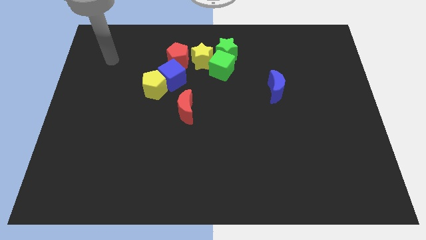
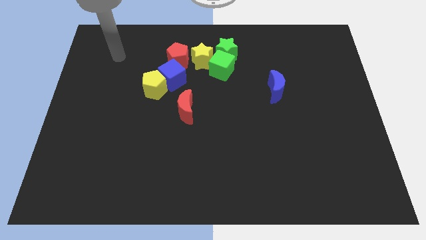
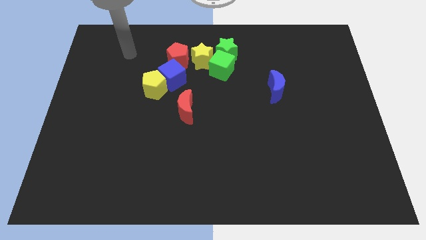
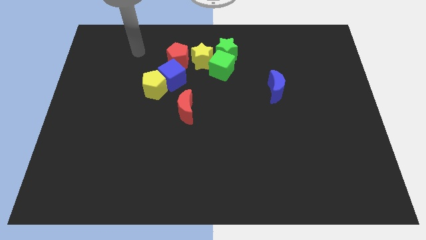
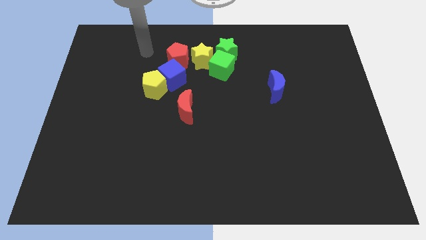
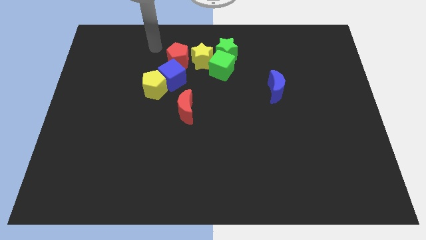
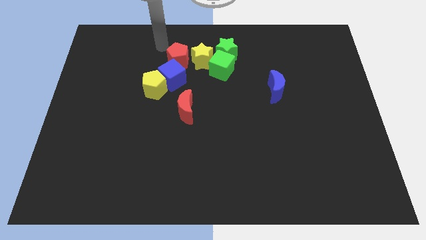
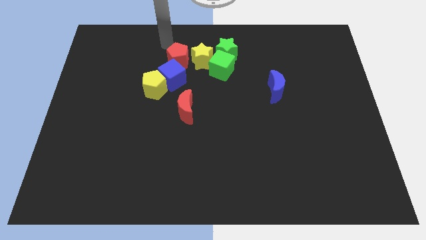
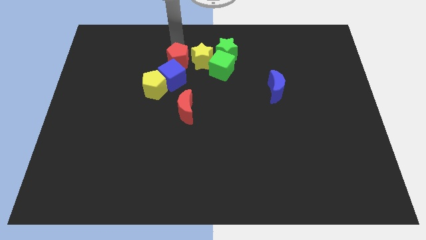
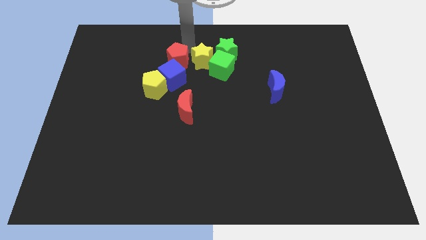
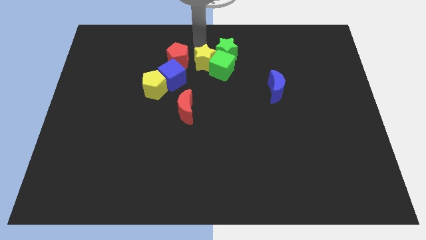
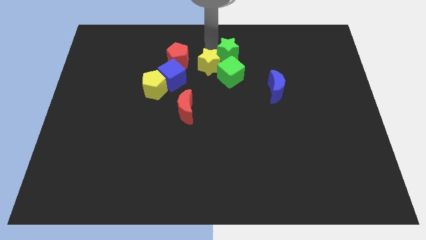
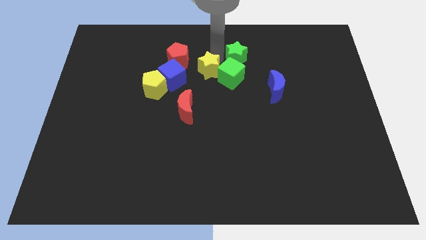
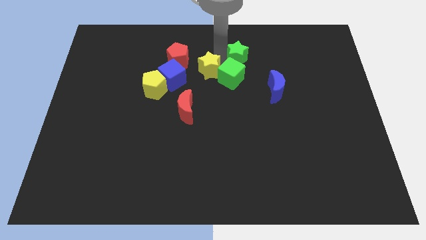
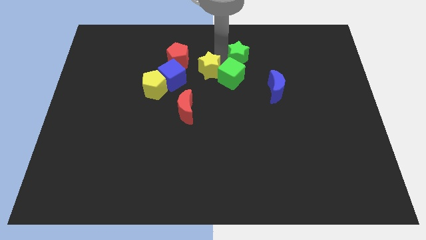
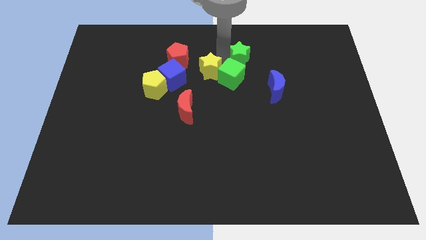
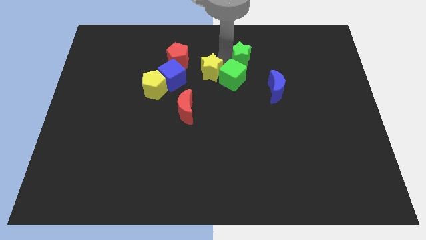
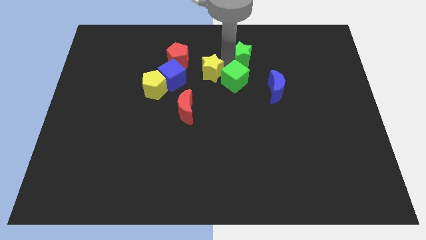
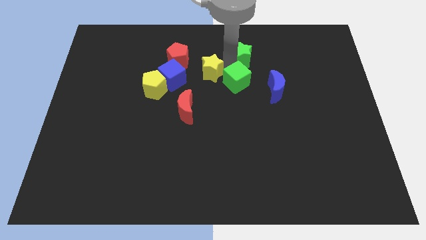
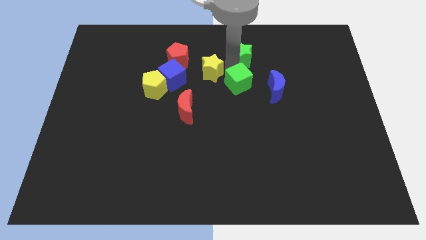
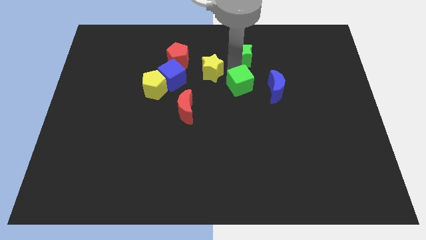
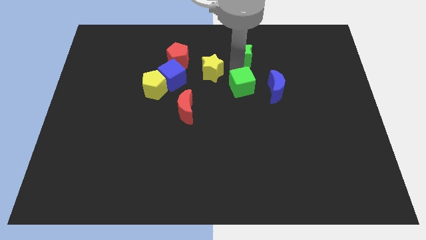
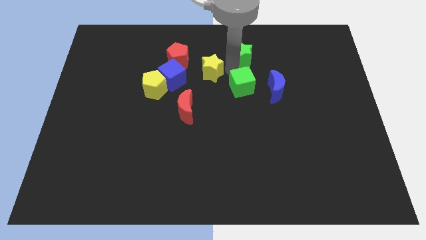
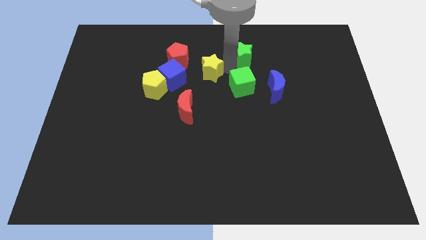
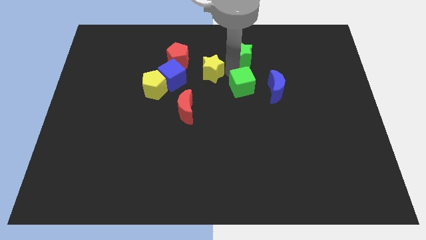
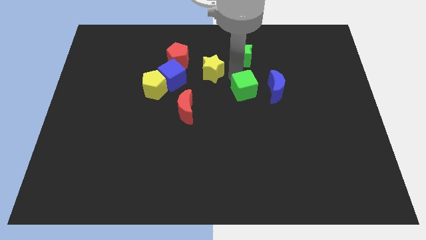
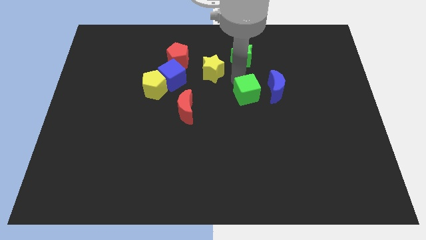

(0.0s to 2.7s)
move the green cube away from the green star and yellow star

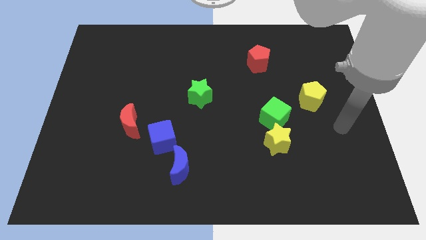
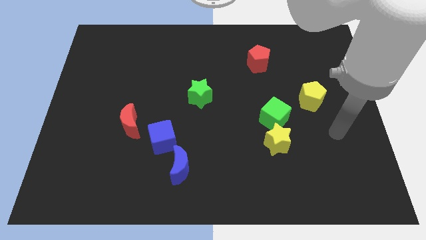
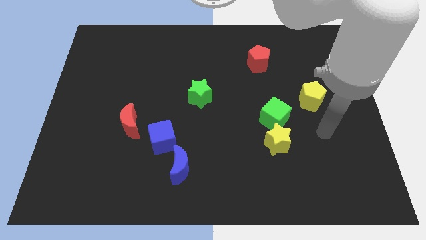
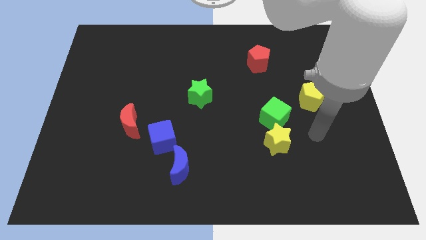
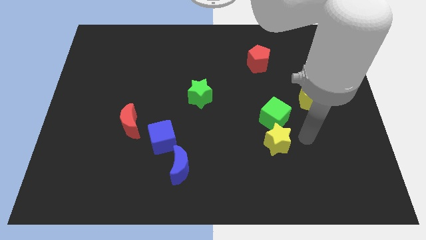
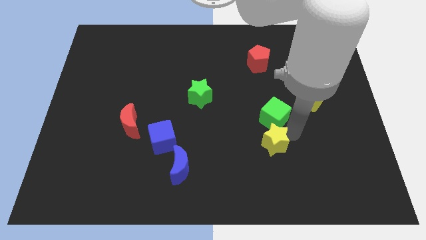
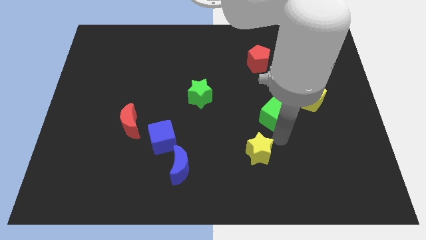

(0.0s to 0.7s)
pull the green cube apart from the yellow star

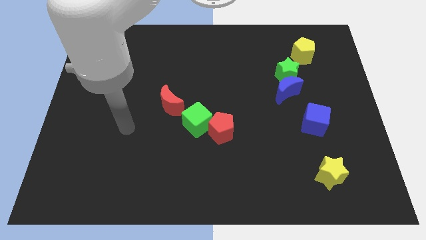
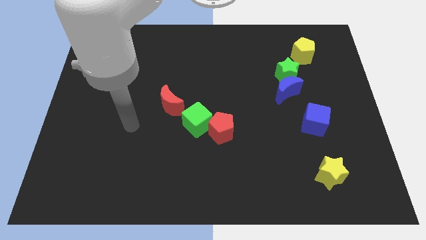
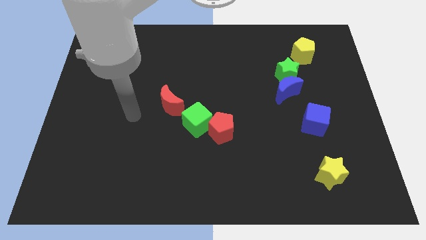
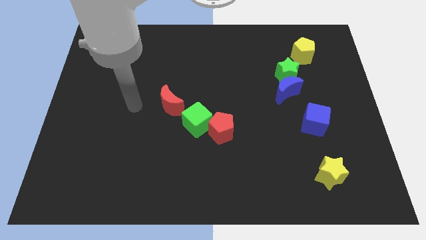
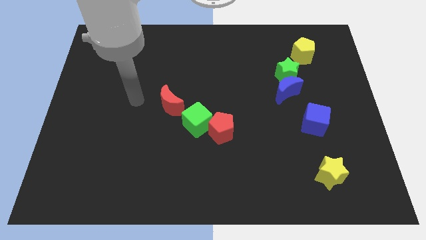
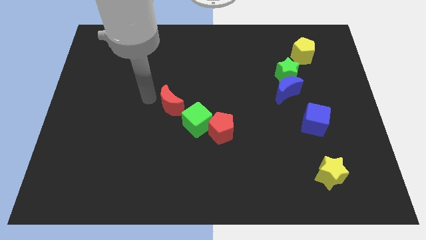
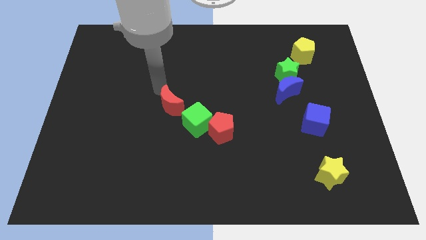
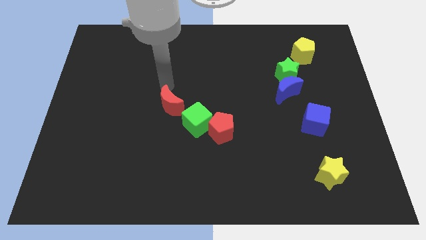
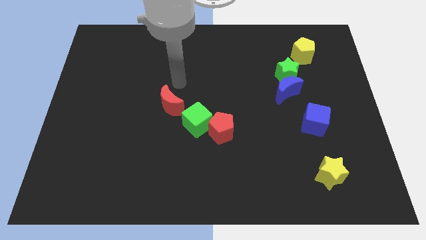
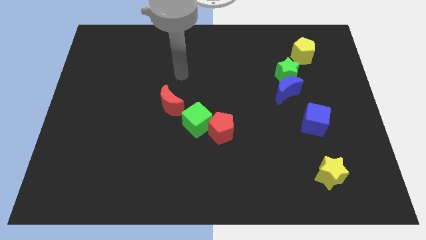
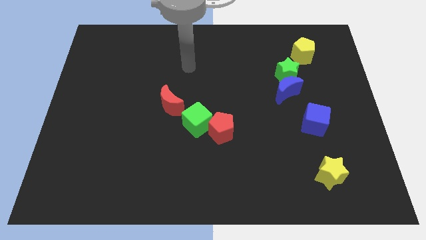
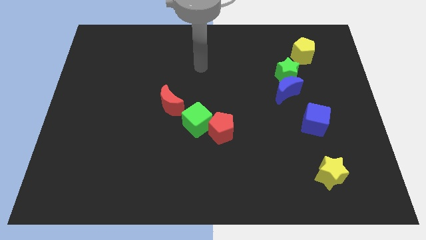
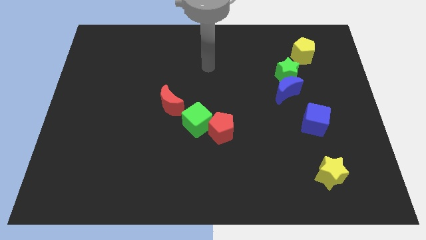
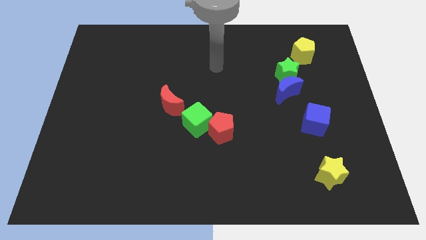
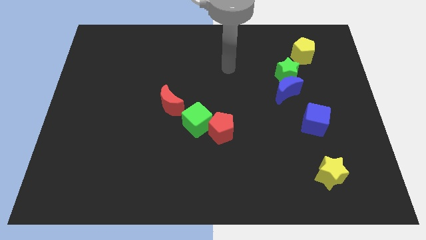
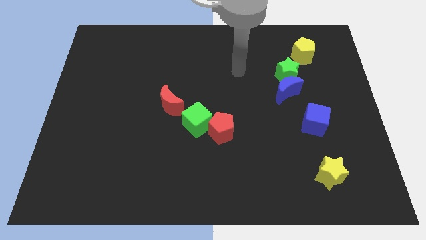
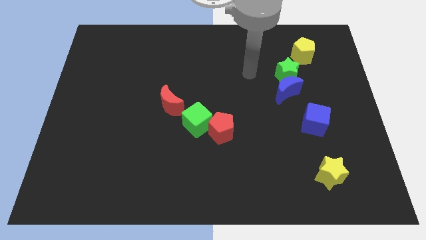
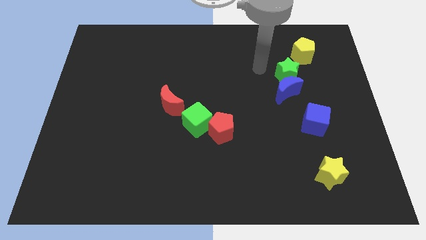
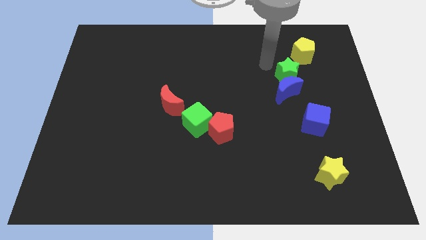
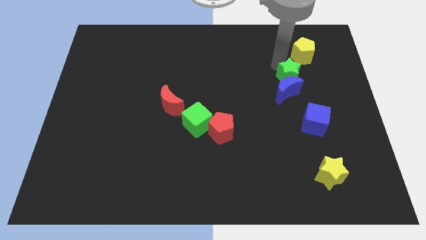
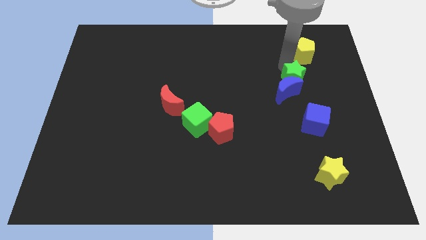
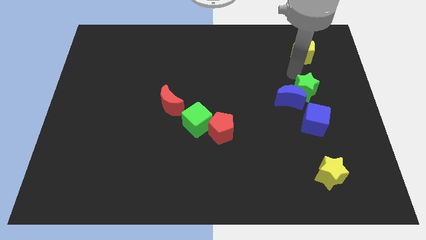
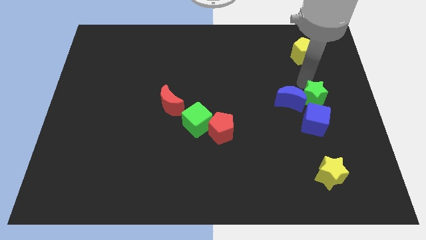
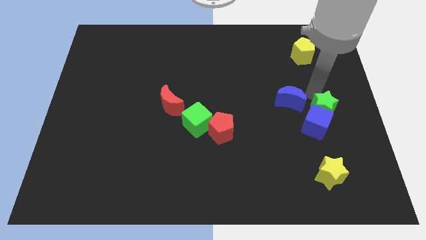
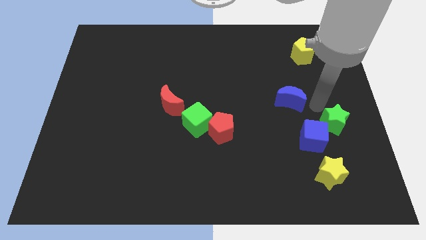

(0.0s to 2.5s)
move the blue moon away from the green star

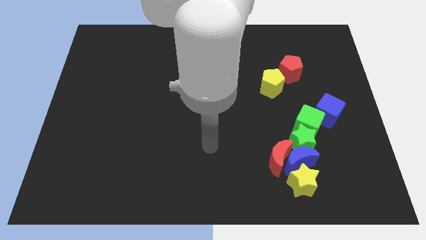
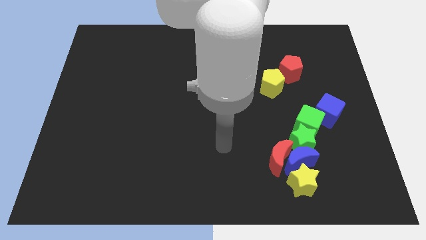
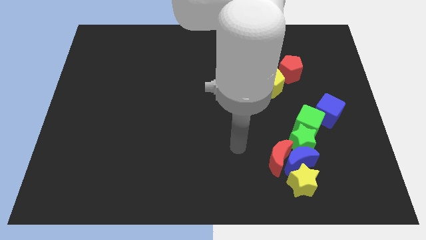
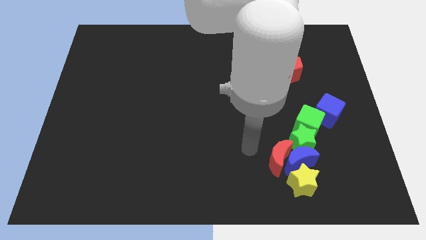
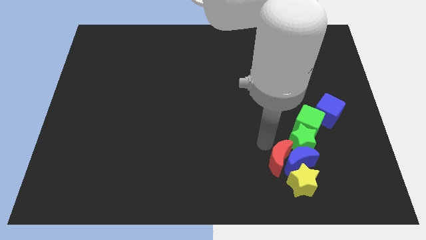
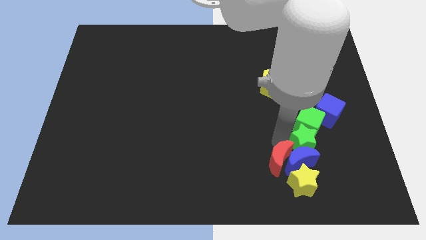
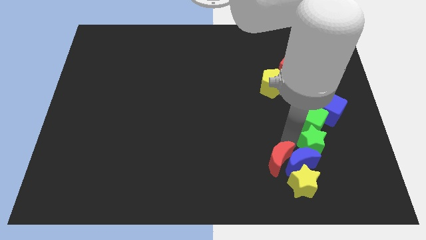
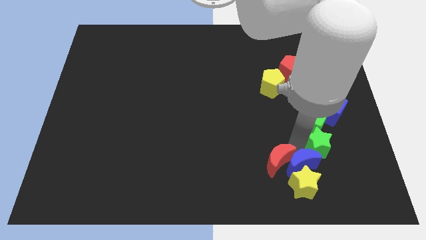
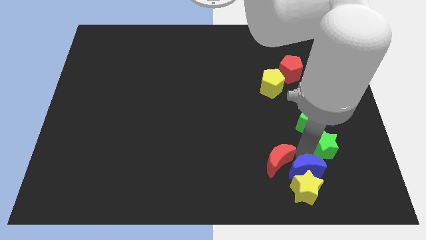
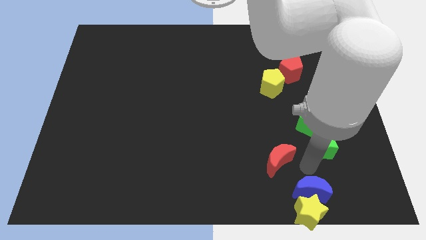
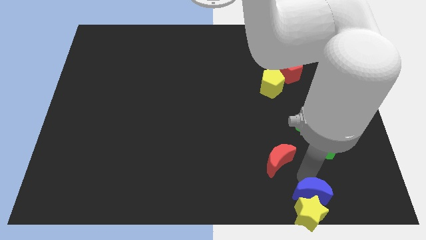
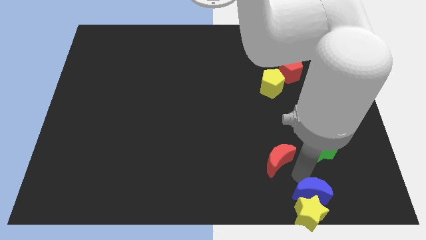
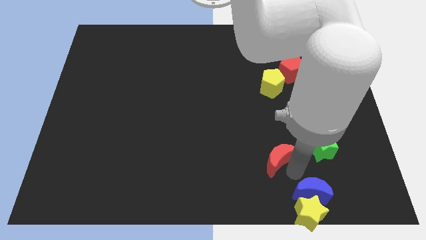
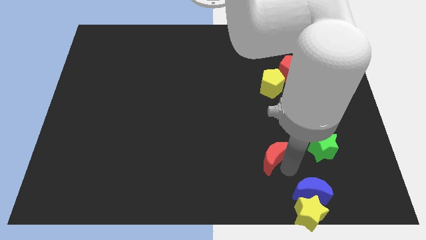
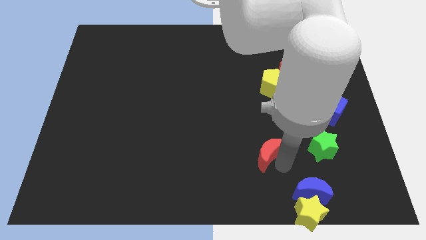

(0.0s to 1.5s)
move the red moon away from the clump

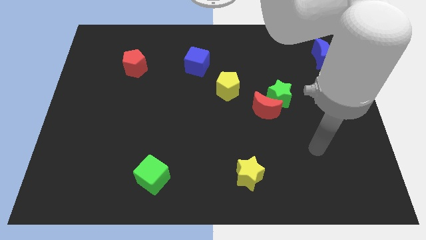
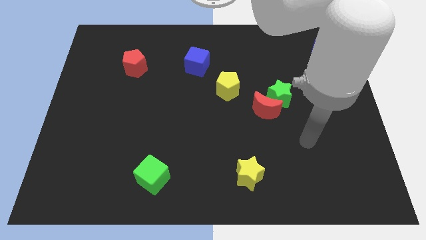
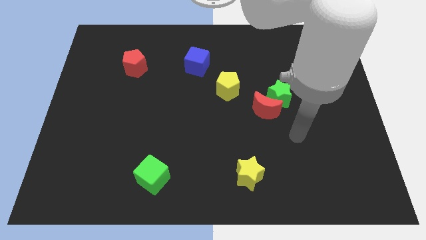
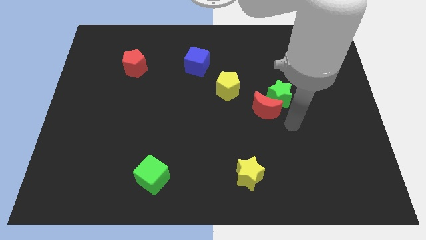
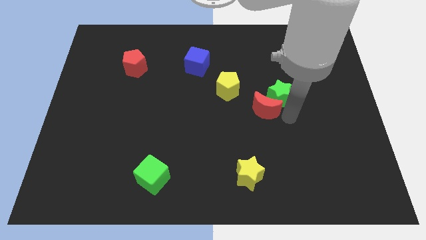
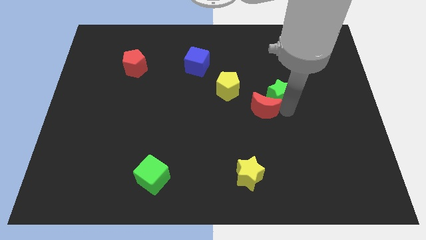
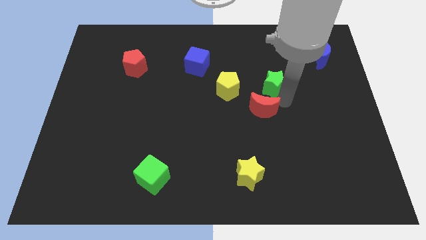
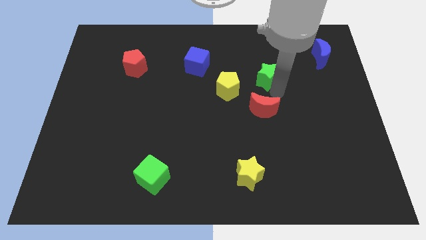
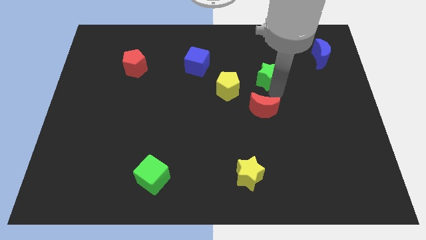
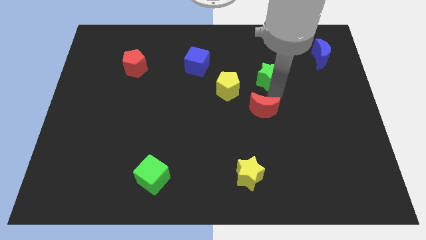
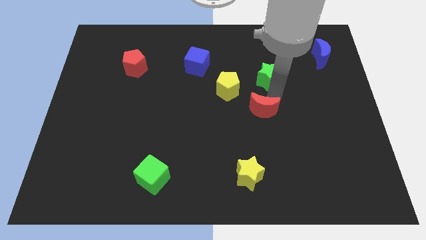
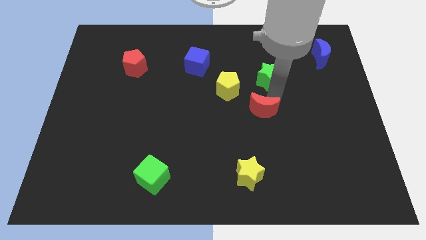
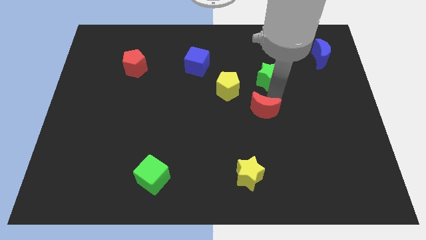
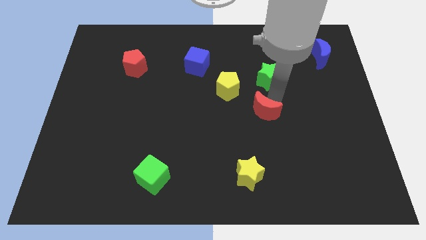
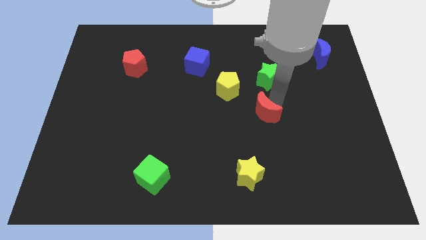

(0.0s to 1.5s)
separate the red moon from the green star

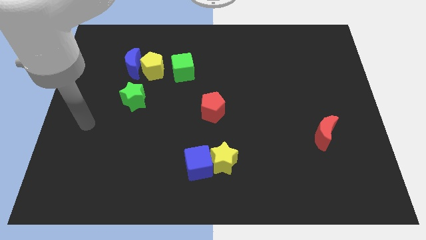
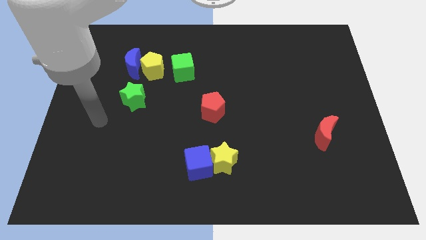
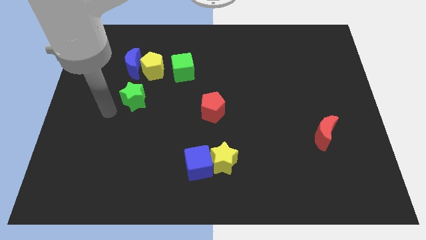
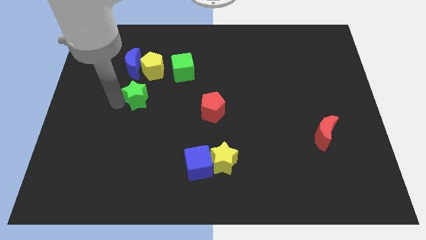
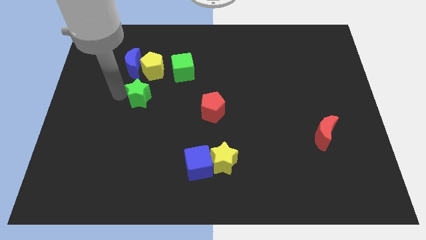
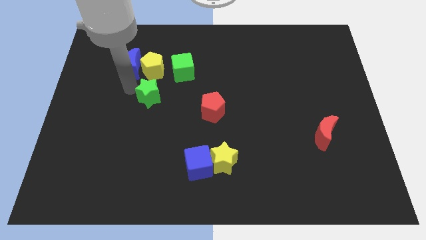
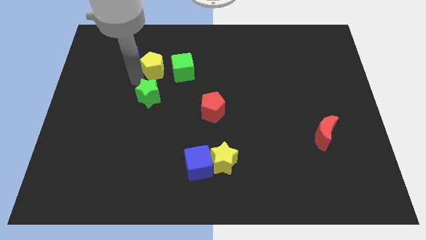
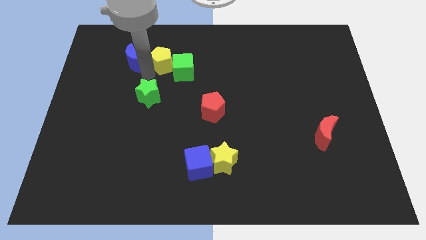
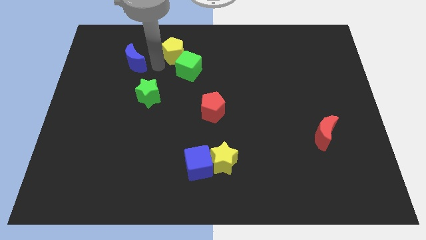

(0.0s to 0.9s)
separate the blue moon from the yellow pentagon
